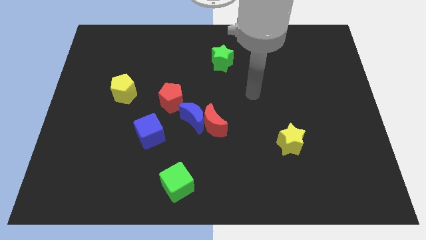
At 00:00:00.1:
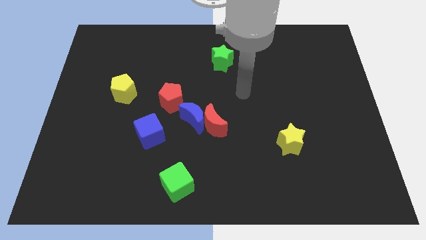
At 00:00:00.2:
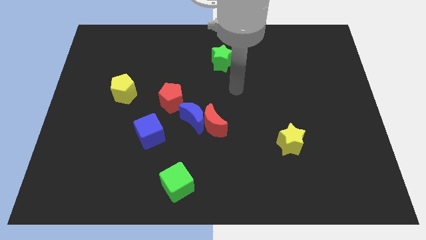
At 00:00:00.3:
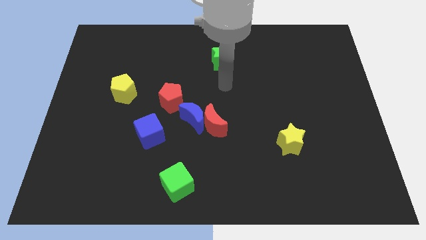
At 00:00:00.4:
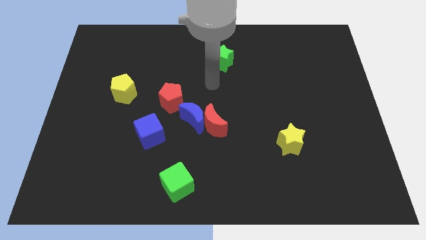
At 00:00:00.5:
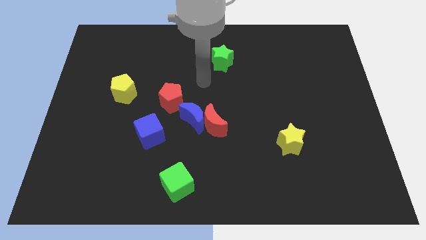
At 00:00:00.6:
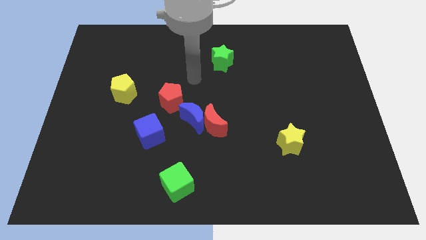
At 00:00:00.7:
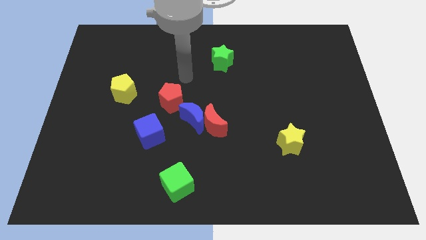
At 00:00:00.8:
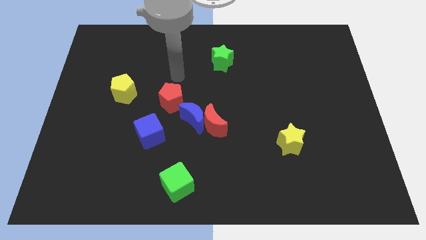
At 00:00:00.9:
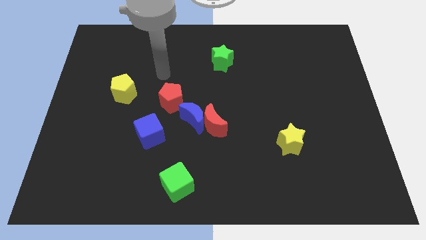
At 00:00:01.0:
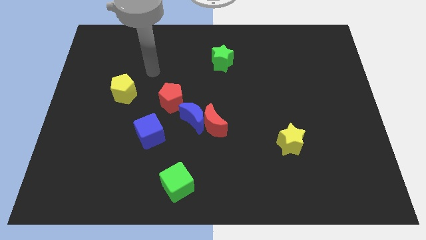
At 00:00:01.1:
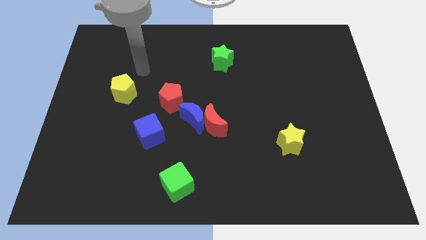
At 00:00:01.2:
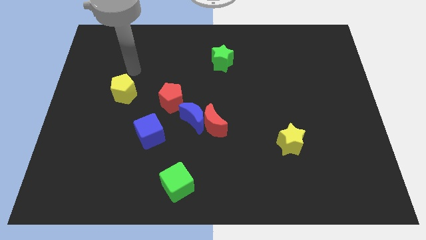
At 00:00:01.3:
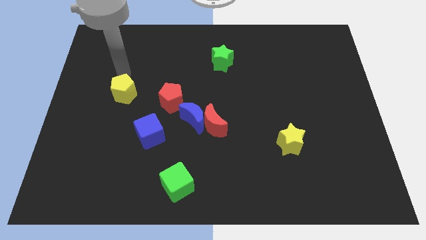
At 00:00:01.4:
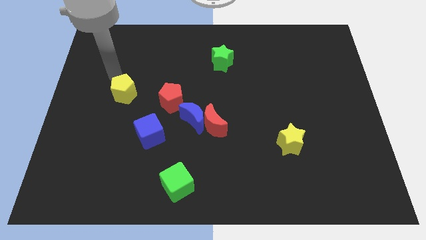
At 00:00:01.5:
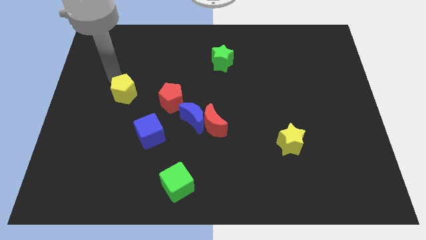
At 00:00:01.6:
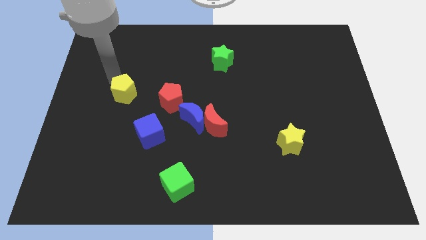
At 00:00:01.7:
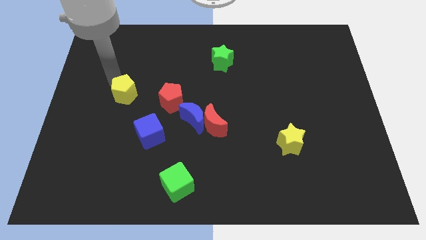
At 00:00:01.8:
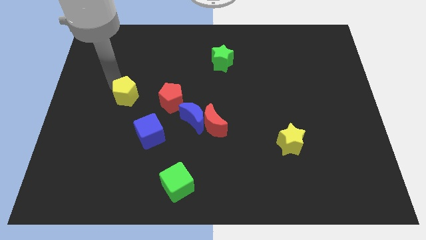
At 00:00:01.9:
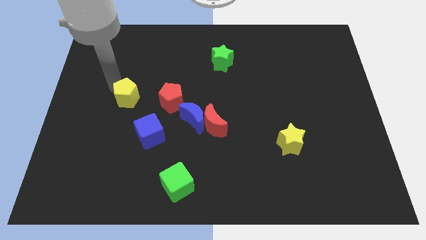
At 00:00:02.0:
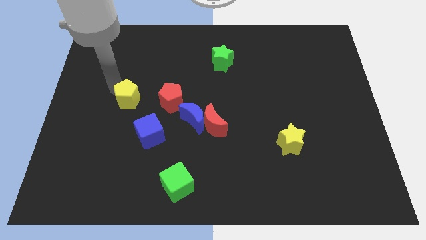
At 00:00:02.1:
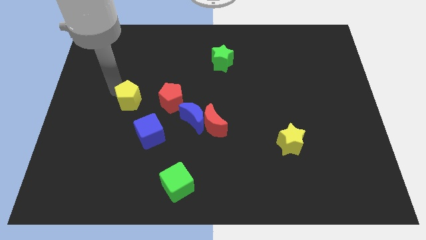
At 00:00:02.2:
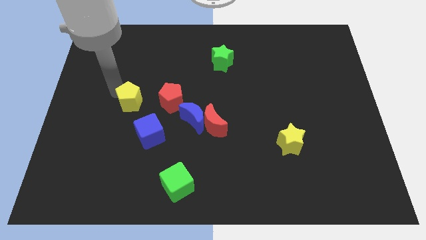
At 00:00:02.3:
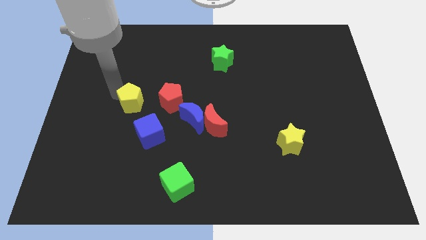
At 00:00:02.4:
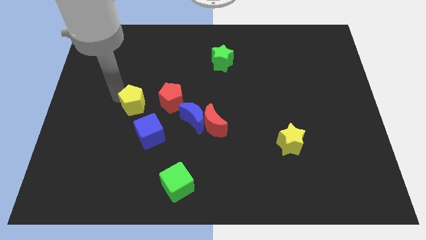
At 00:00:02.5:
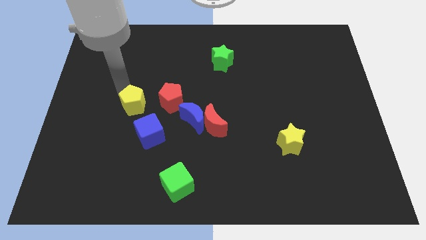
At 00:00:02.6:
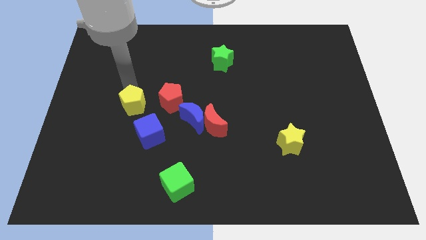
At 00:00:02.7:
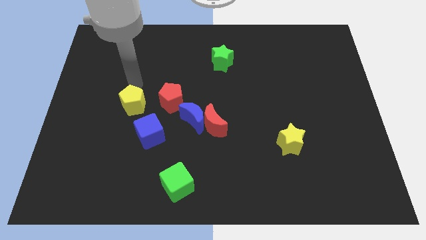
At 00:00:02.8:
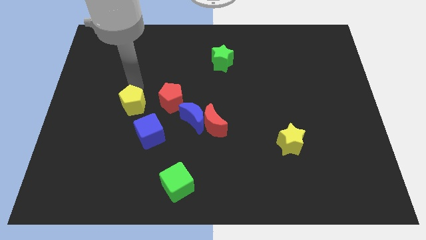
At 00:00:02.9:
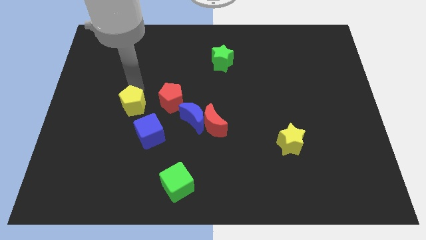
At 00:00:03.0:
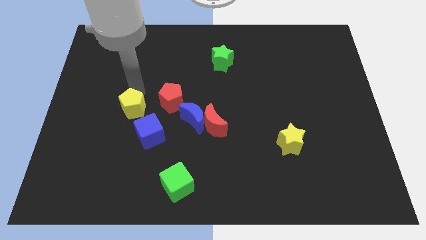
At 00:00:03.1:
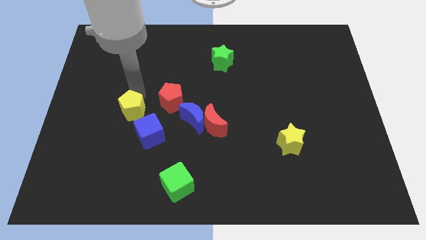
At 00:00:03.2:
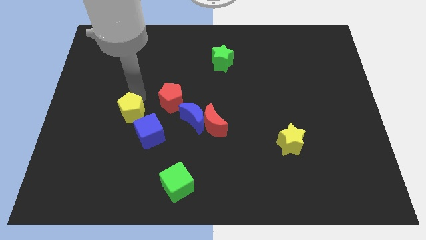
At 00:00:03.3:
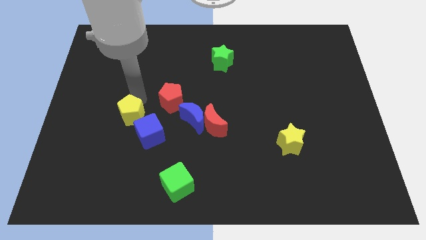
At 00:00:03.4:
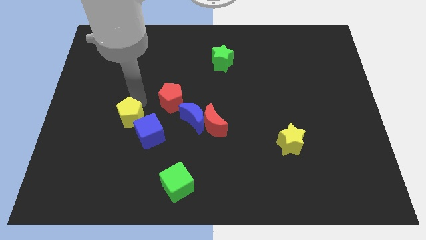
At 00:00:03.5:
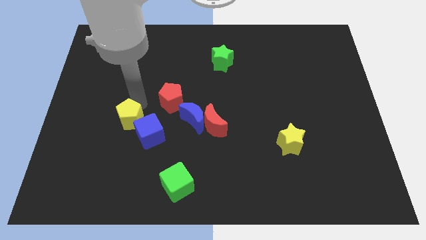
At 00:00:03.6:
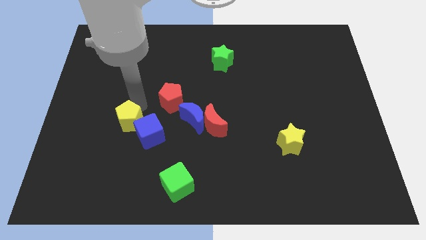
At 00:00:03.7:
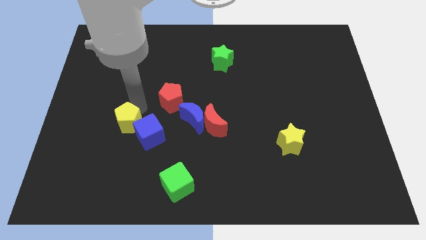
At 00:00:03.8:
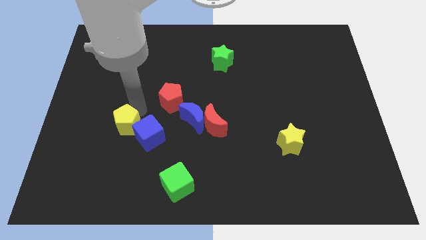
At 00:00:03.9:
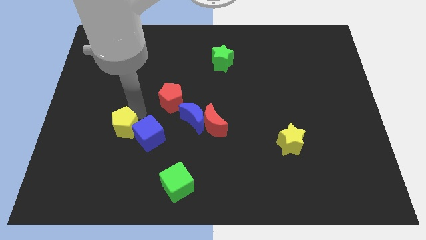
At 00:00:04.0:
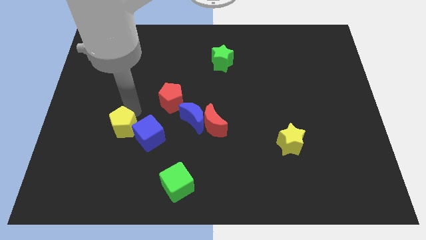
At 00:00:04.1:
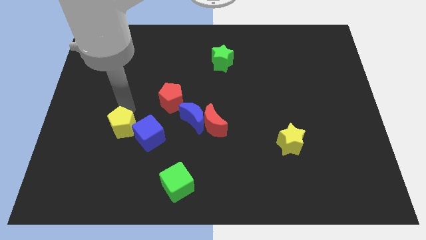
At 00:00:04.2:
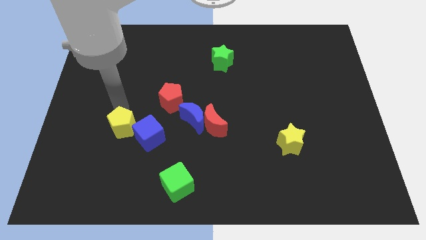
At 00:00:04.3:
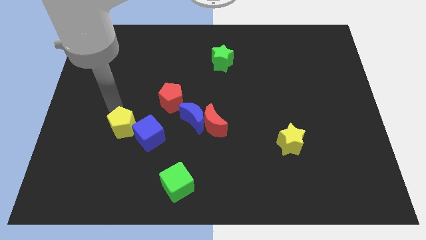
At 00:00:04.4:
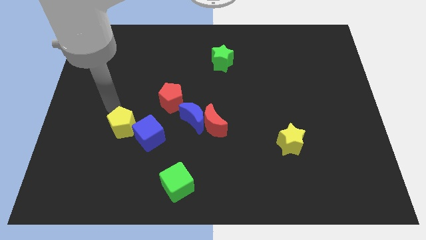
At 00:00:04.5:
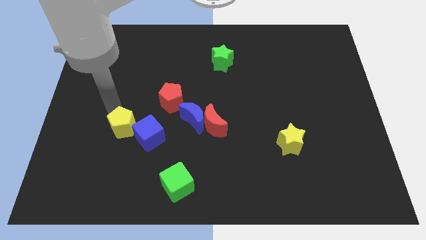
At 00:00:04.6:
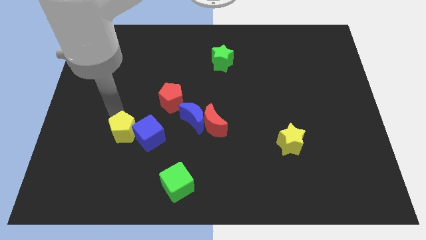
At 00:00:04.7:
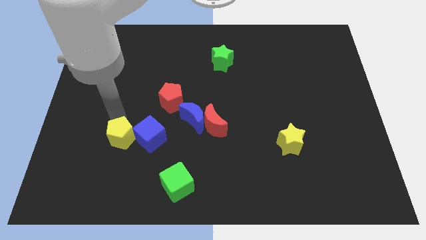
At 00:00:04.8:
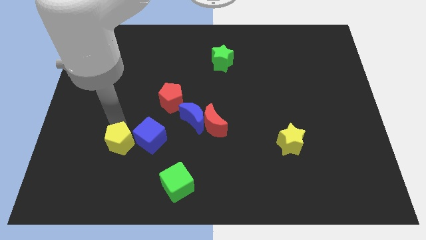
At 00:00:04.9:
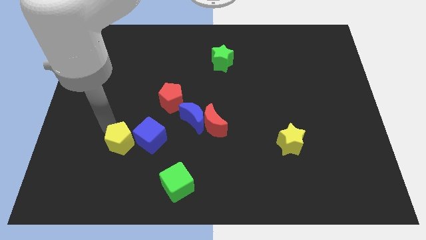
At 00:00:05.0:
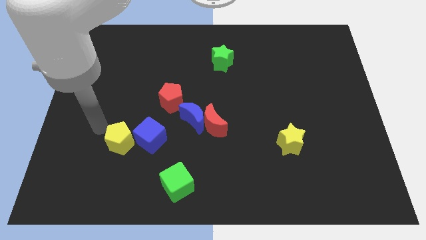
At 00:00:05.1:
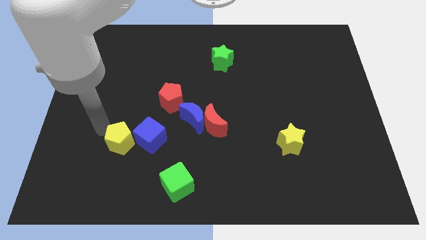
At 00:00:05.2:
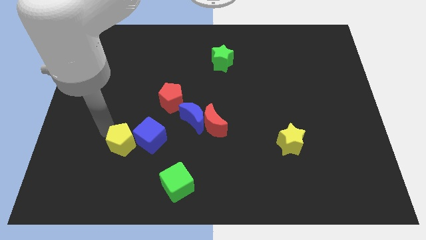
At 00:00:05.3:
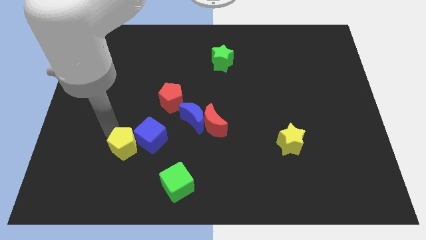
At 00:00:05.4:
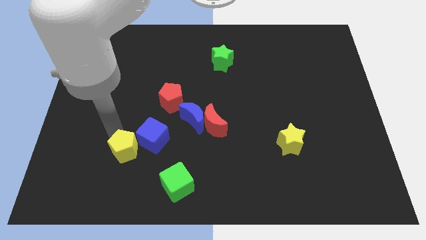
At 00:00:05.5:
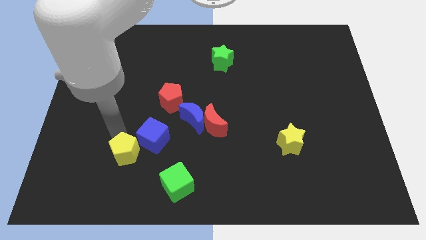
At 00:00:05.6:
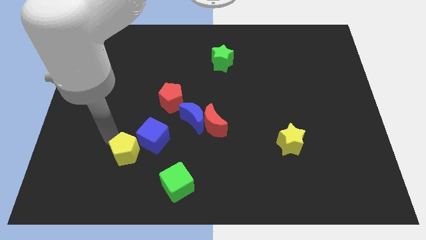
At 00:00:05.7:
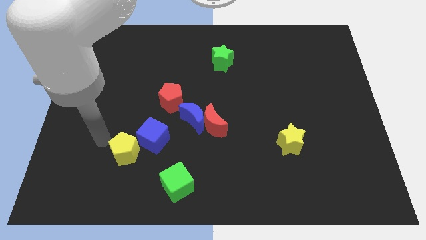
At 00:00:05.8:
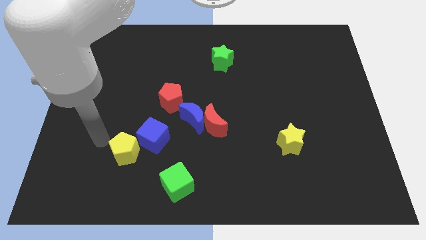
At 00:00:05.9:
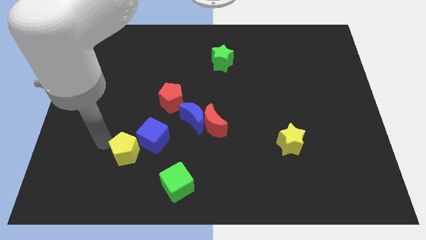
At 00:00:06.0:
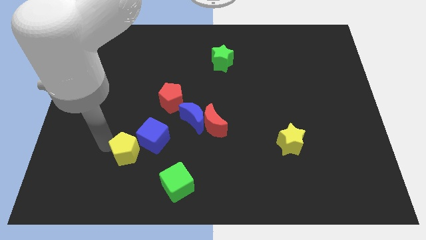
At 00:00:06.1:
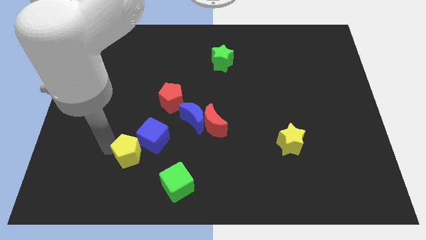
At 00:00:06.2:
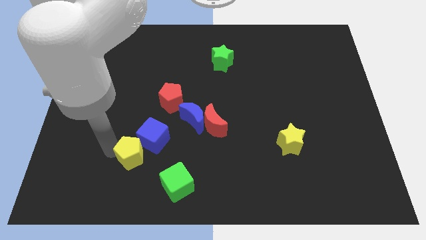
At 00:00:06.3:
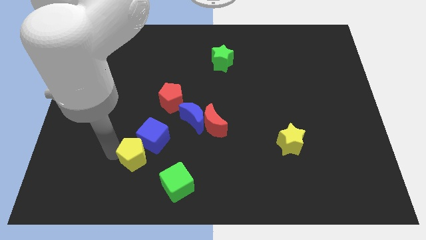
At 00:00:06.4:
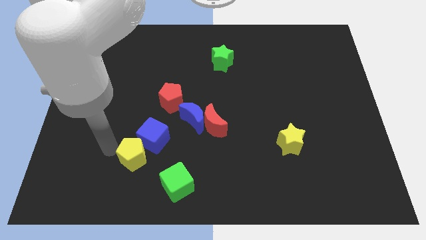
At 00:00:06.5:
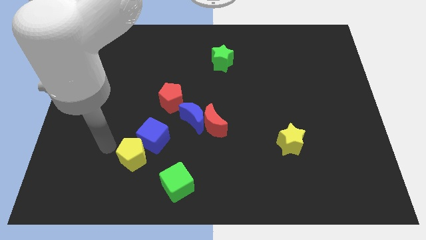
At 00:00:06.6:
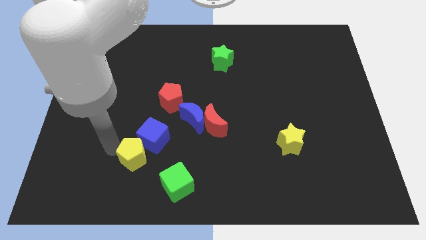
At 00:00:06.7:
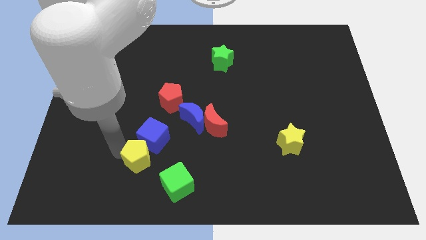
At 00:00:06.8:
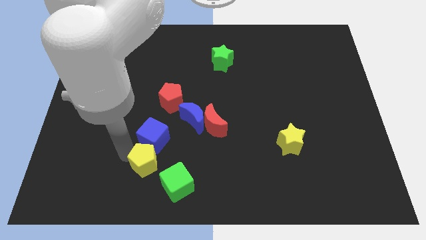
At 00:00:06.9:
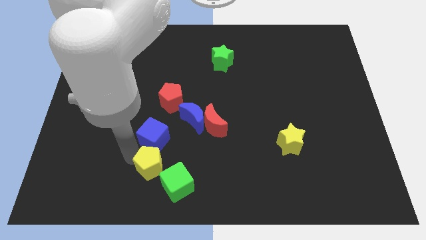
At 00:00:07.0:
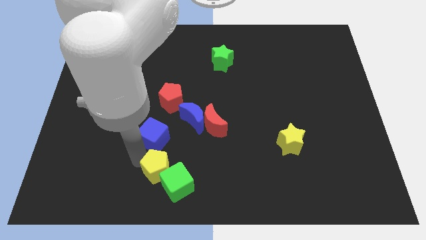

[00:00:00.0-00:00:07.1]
put the yellow pentagon close to the green cube

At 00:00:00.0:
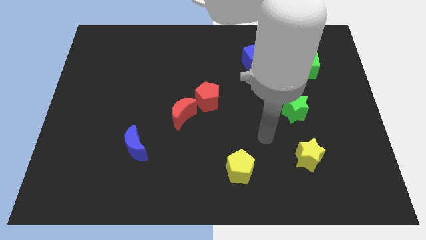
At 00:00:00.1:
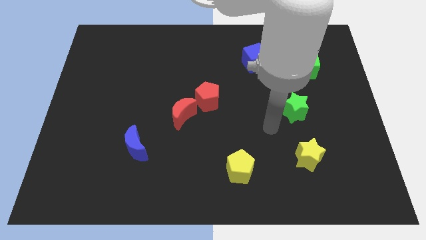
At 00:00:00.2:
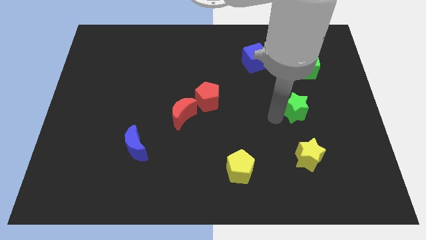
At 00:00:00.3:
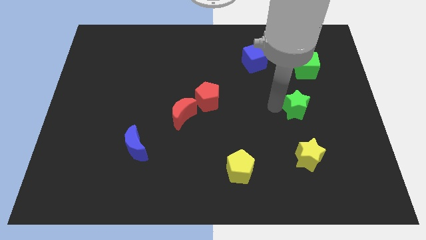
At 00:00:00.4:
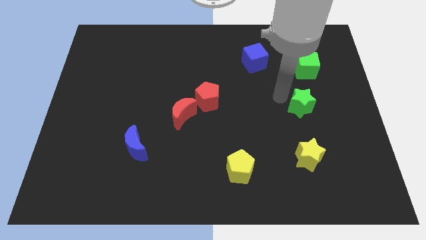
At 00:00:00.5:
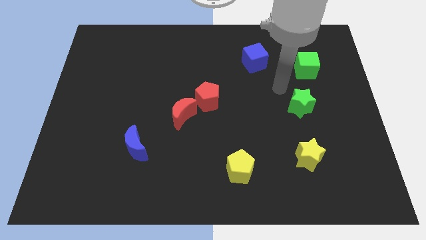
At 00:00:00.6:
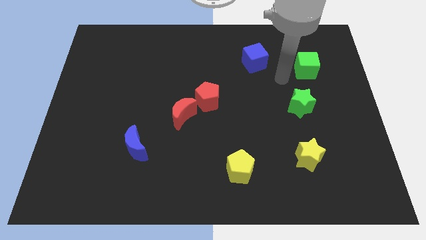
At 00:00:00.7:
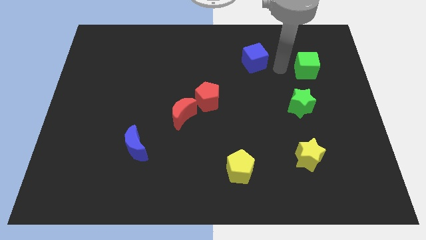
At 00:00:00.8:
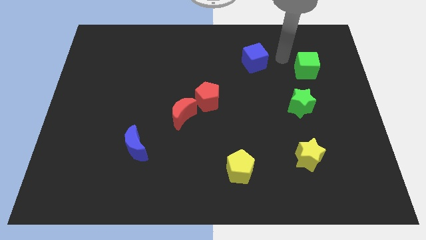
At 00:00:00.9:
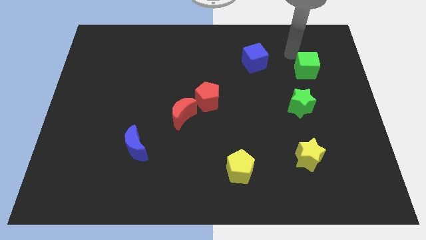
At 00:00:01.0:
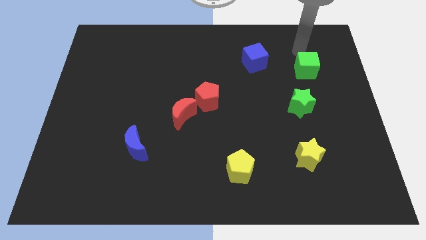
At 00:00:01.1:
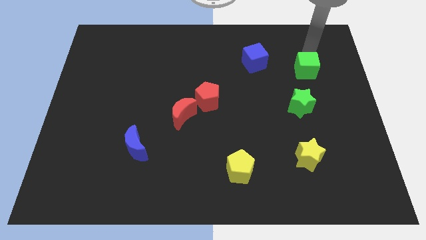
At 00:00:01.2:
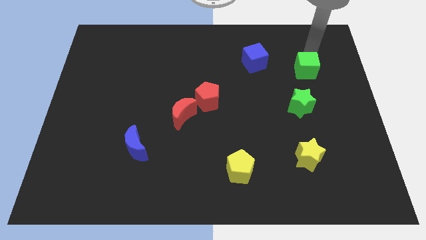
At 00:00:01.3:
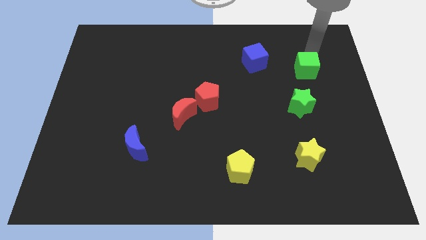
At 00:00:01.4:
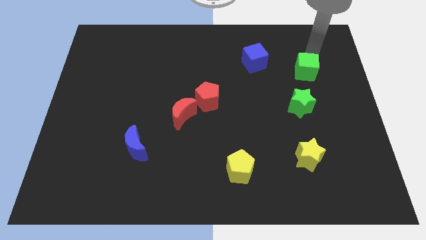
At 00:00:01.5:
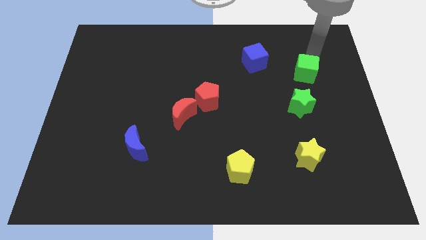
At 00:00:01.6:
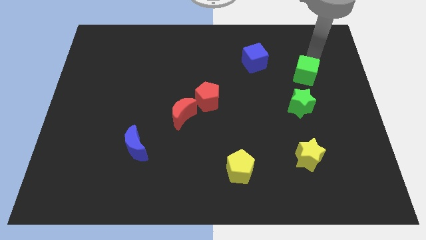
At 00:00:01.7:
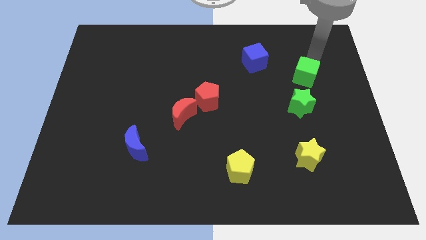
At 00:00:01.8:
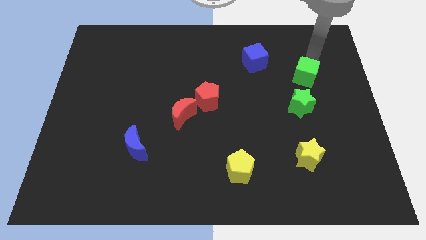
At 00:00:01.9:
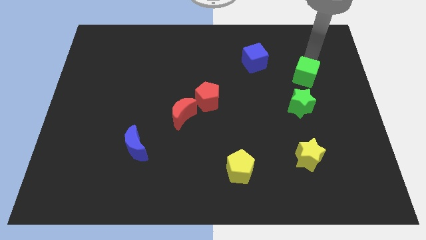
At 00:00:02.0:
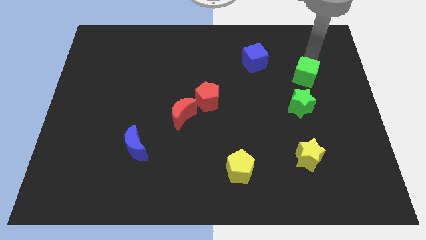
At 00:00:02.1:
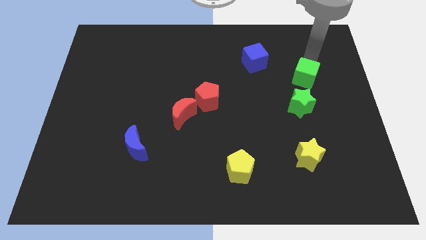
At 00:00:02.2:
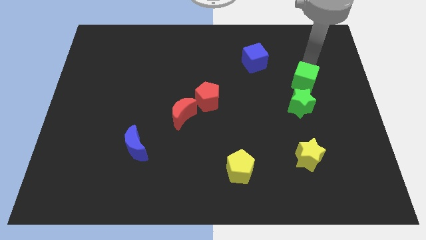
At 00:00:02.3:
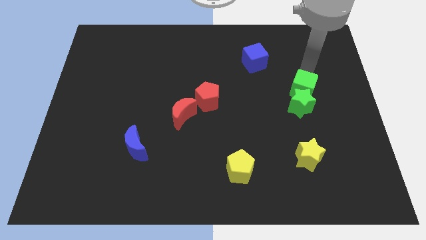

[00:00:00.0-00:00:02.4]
put the green cube towards the green star
